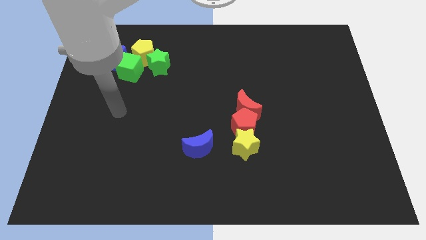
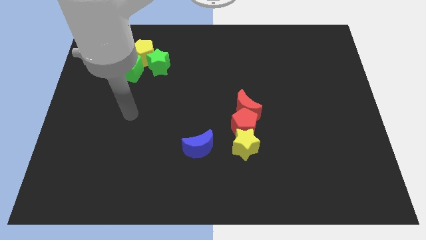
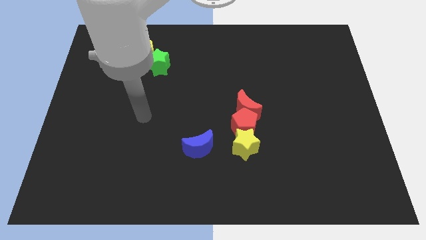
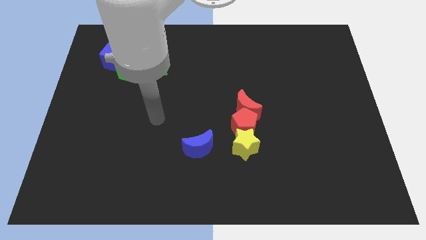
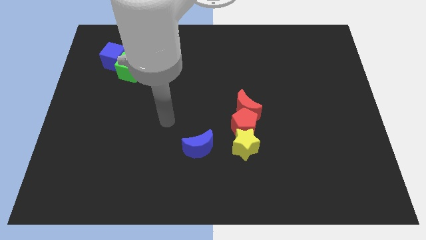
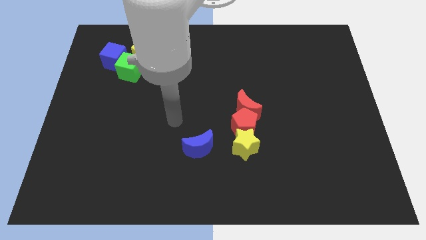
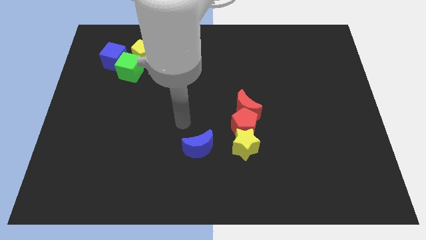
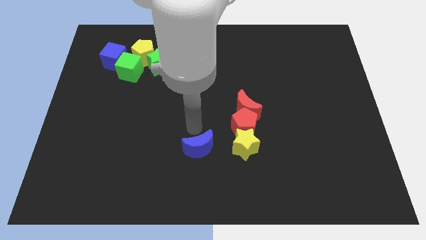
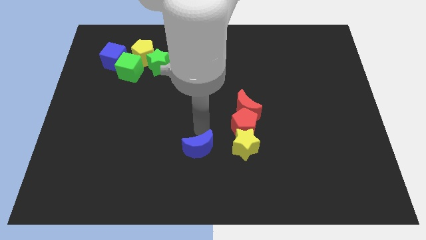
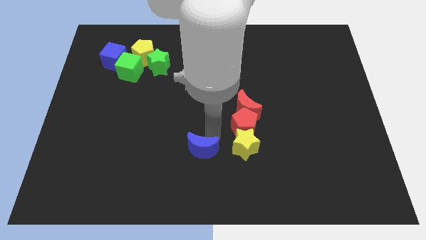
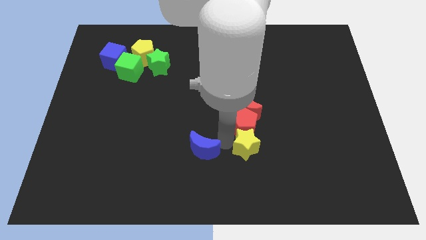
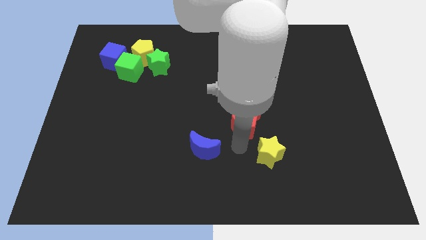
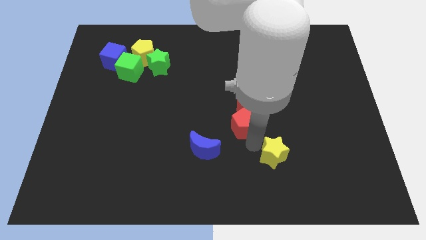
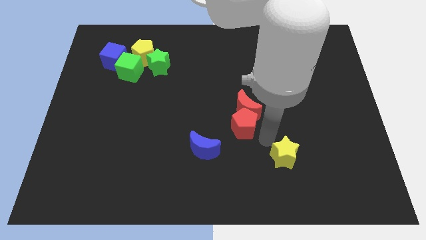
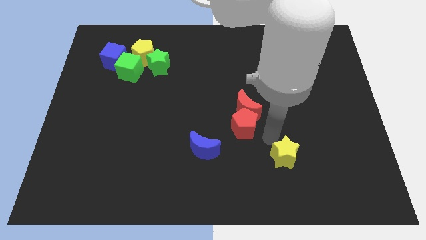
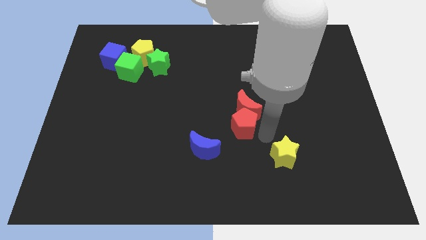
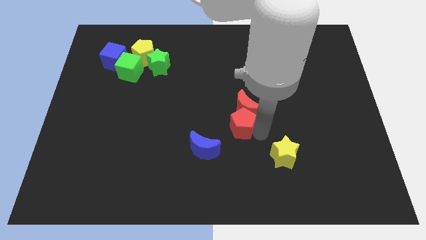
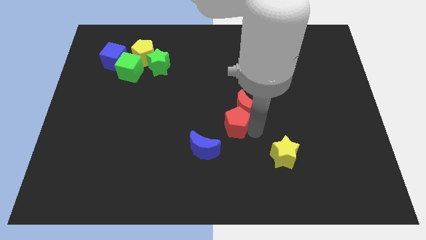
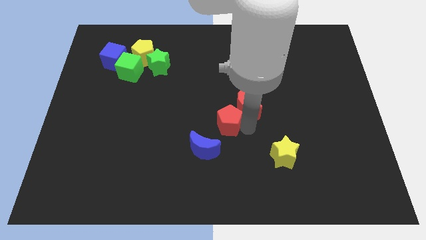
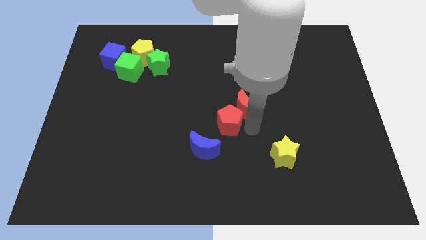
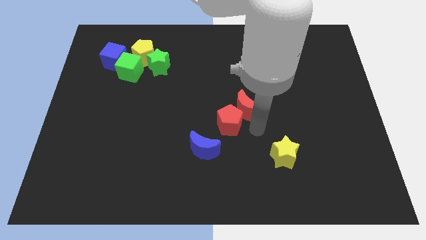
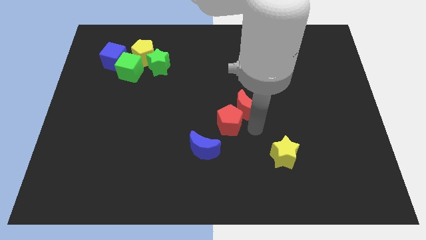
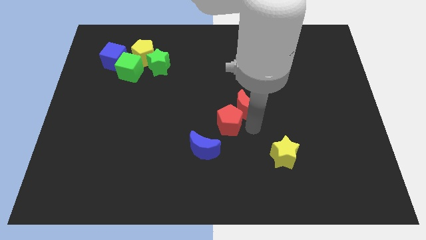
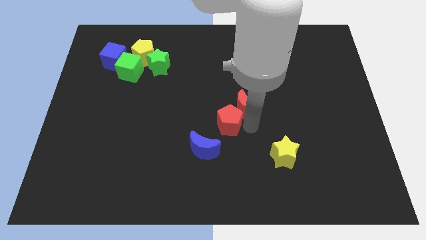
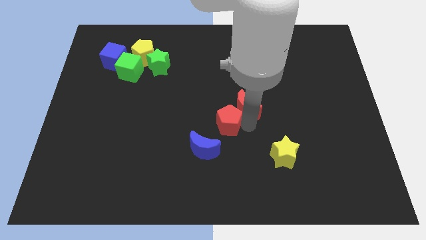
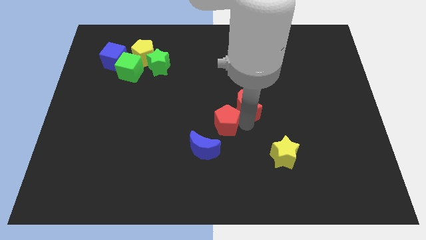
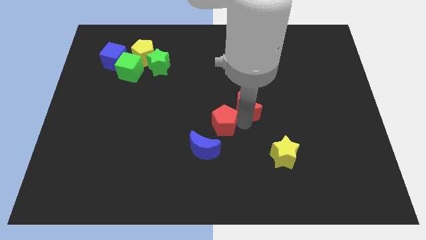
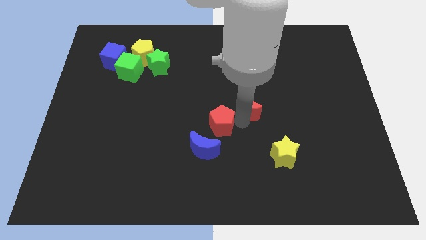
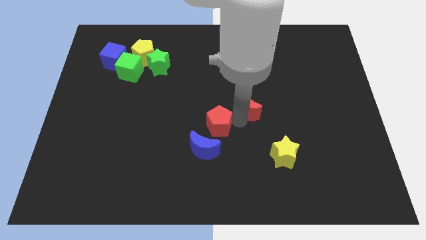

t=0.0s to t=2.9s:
move the red pentagon away from the red moon and yellow star

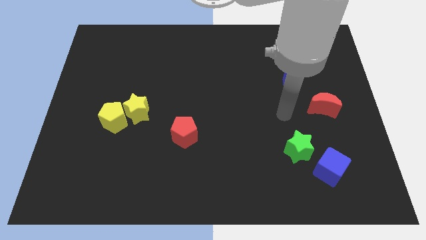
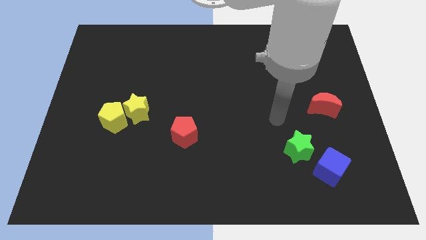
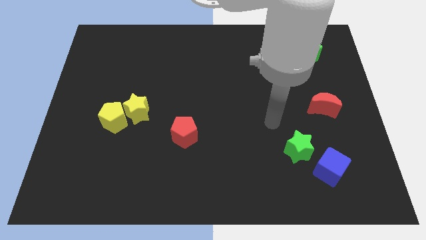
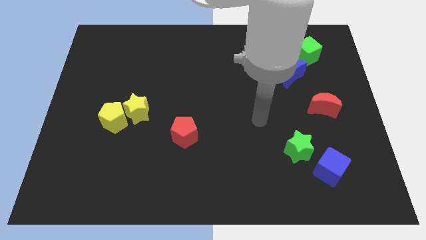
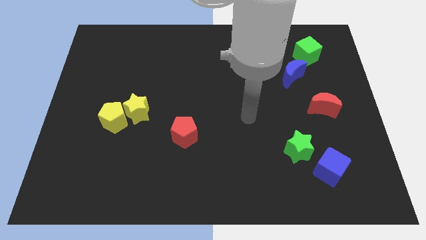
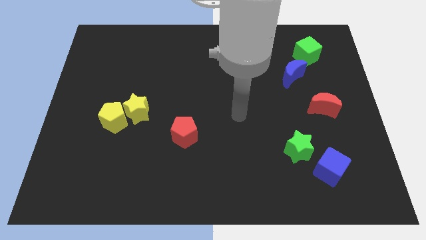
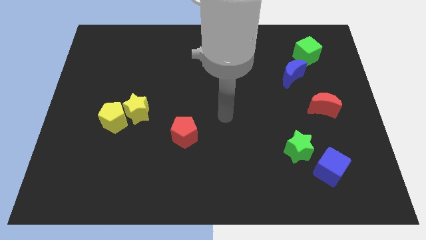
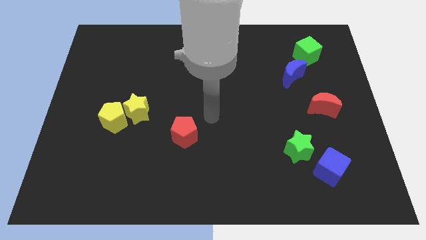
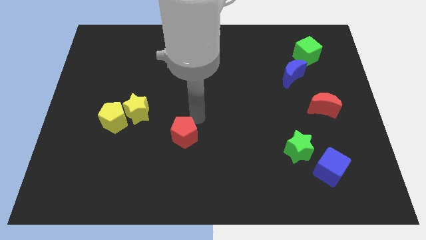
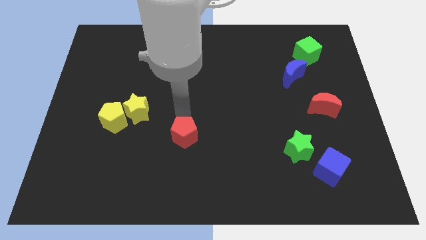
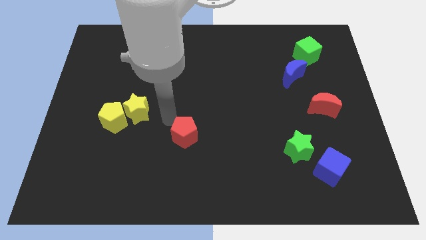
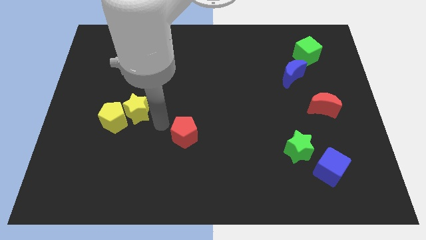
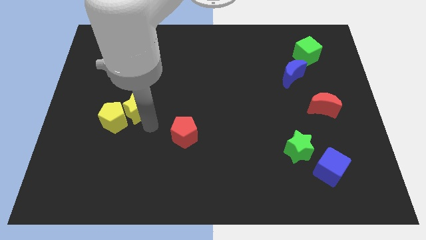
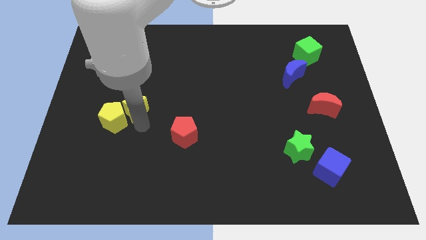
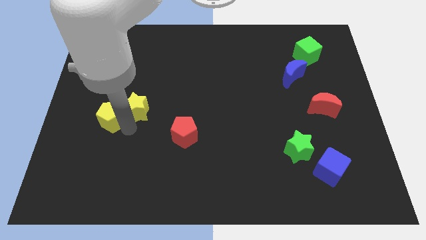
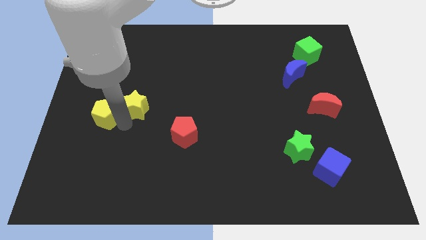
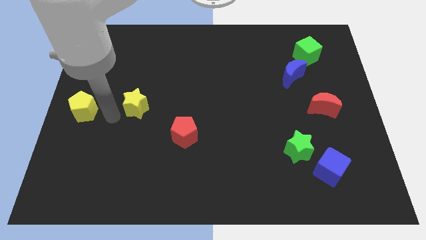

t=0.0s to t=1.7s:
separate the yellow star from the yellow pentagon

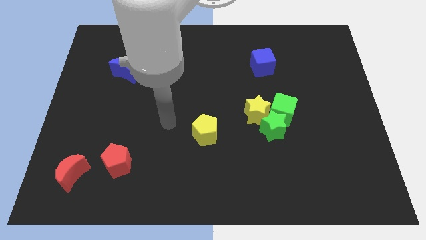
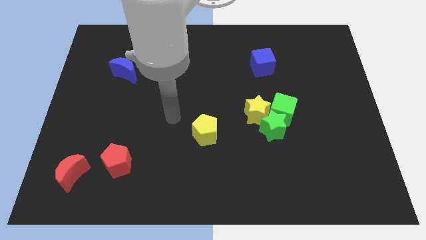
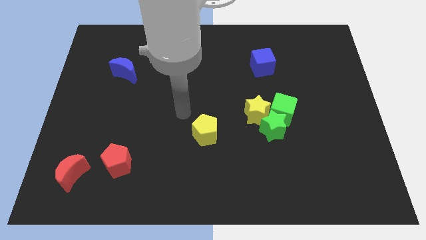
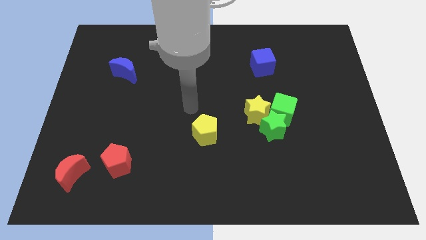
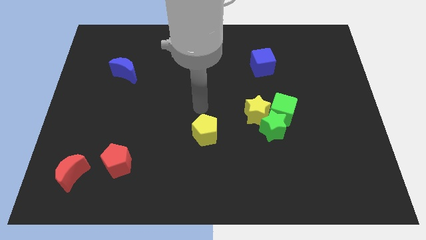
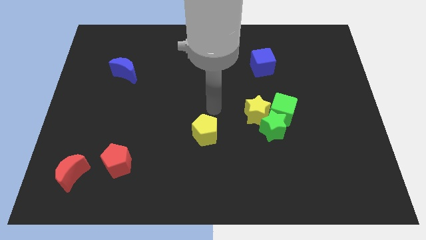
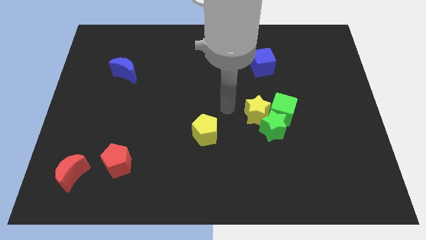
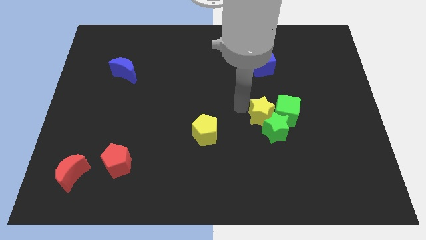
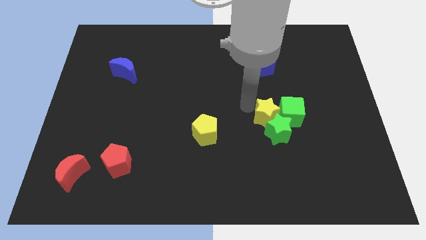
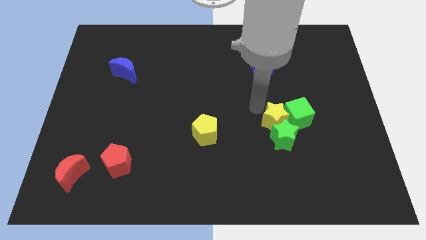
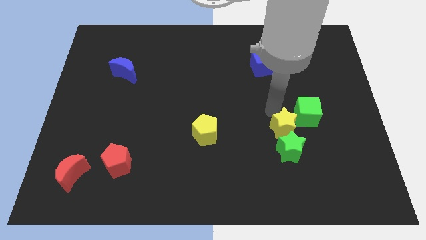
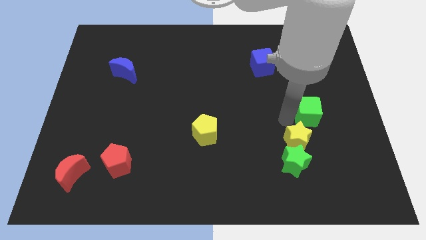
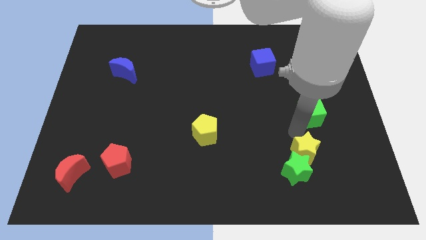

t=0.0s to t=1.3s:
separate the green star from the green cube and yellow star

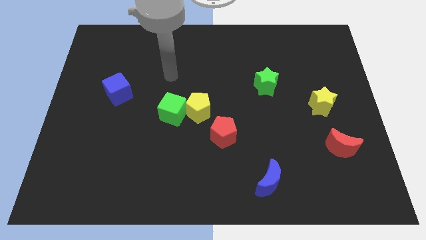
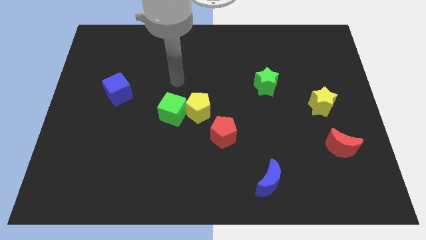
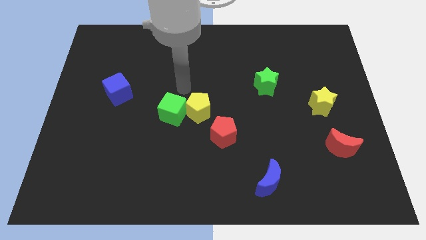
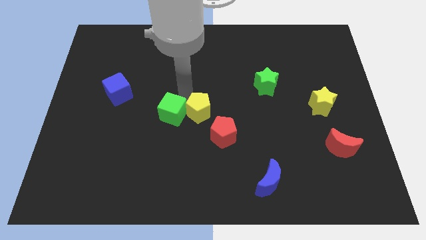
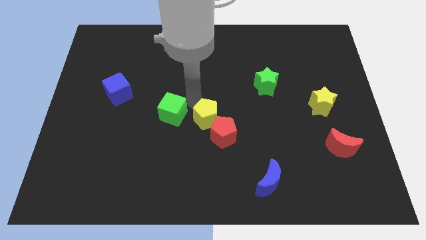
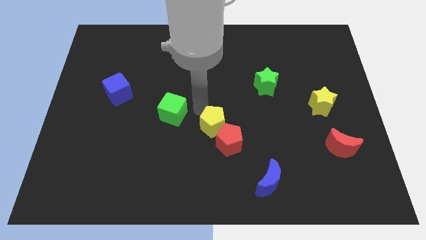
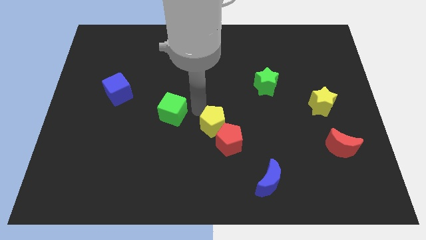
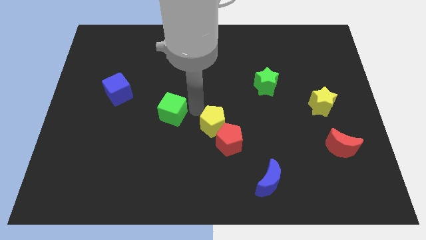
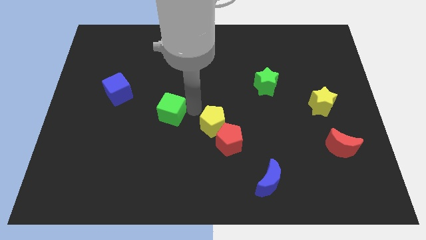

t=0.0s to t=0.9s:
move the green cube away from the yellow pentagon

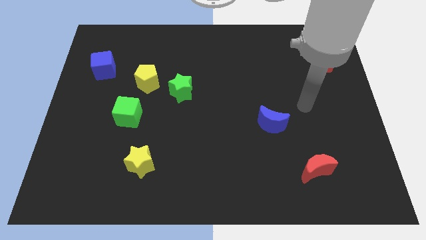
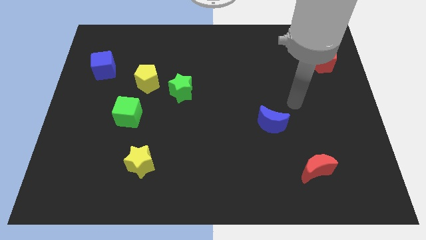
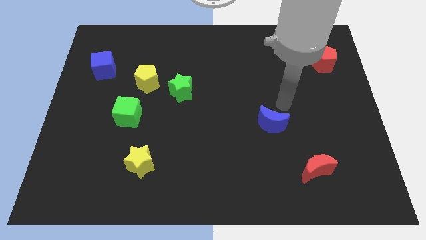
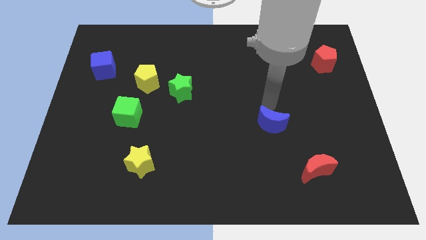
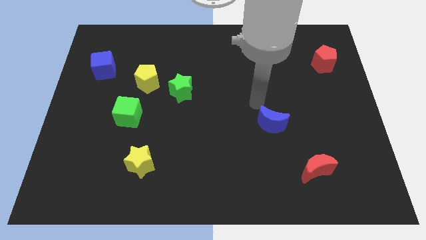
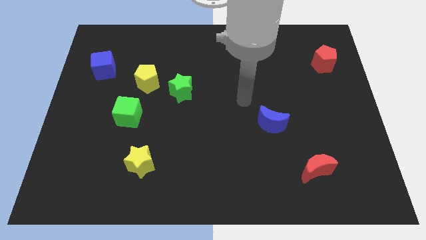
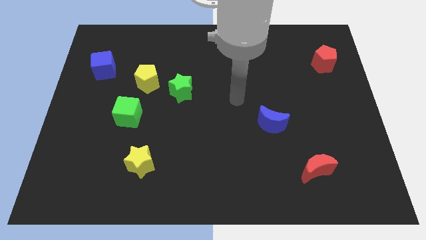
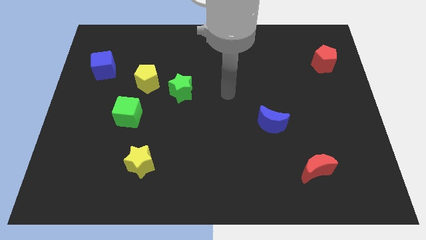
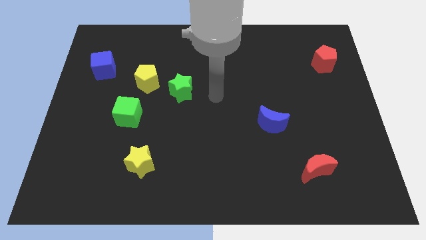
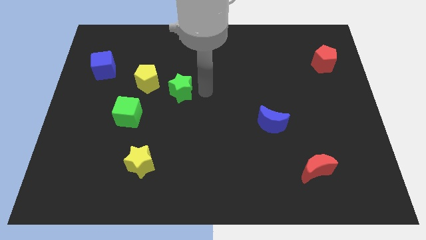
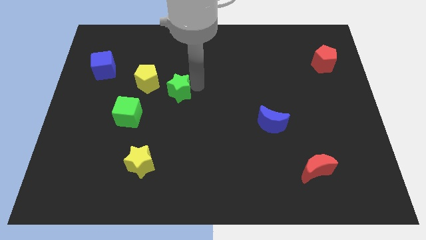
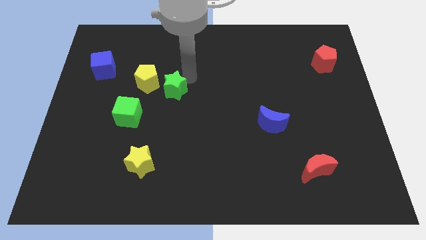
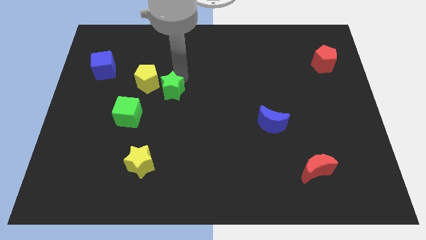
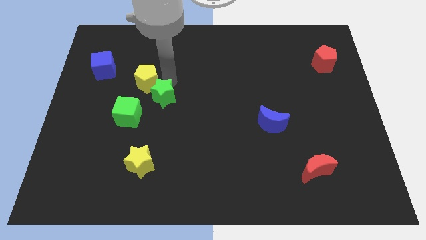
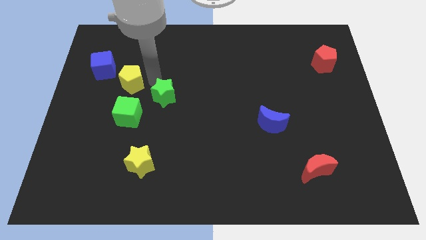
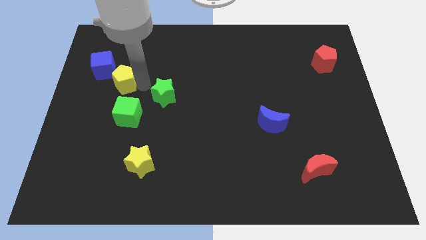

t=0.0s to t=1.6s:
move the green star away from the yellow pentagon

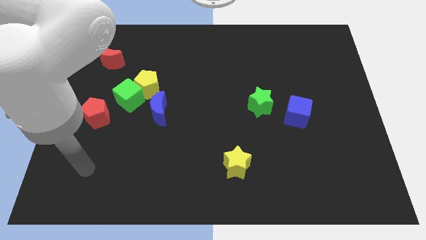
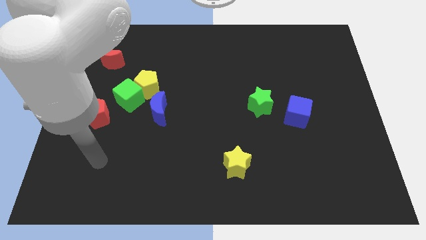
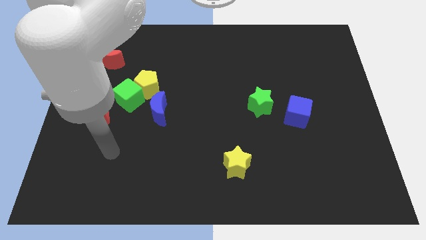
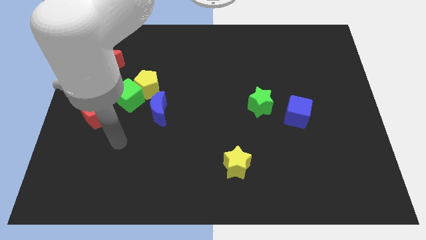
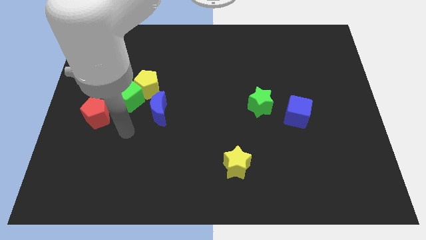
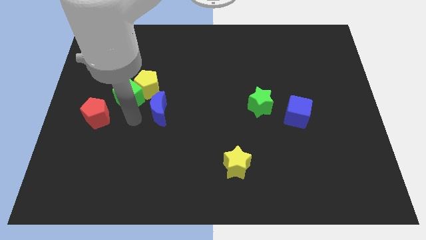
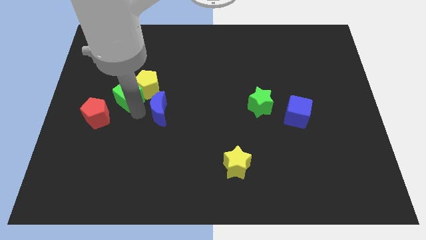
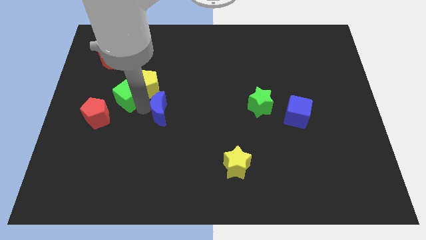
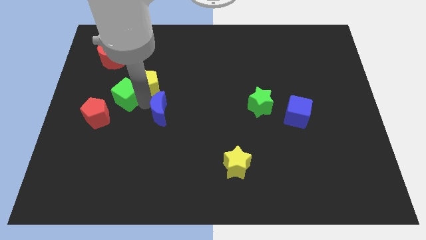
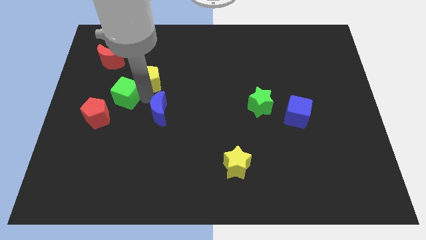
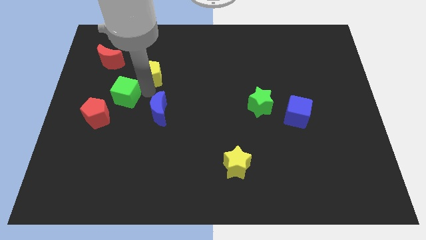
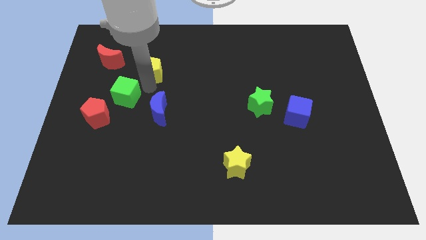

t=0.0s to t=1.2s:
move the yellow pentagon away from the green cube and blue moon
